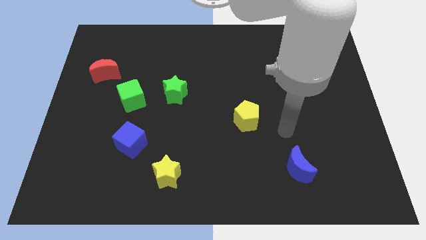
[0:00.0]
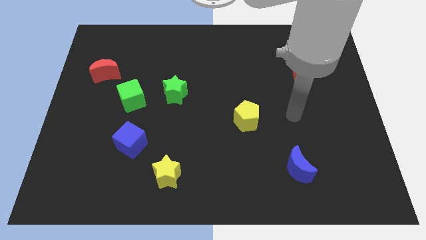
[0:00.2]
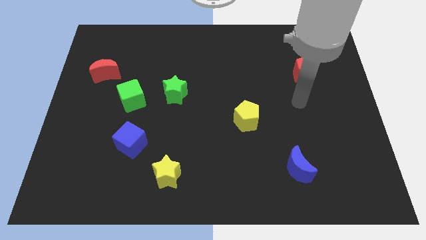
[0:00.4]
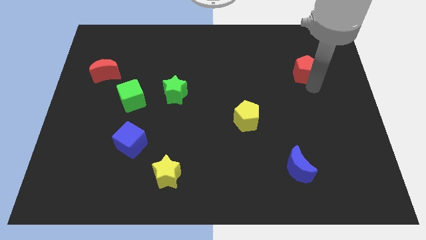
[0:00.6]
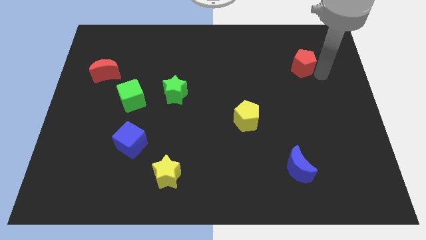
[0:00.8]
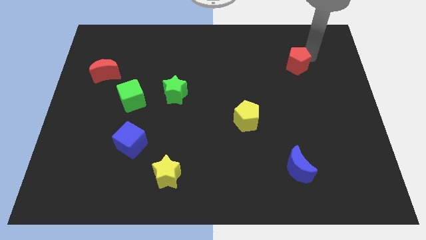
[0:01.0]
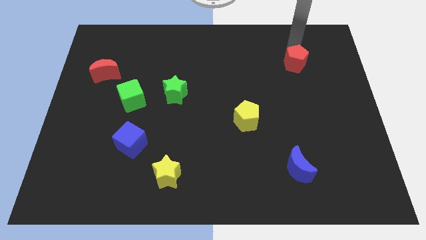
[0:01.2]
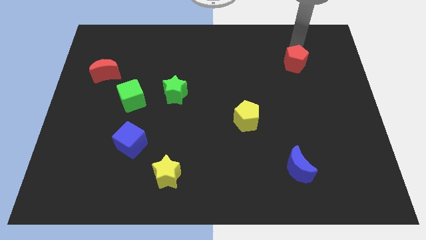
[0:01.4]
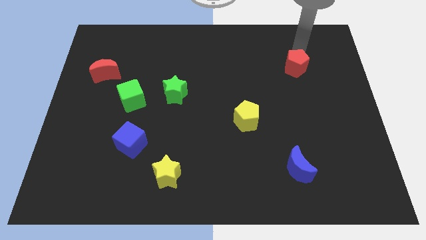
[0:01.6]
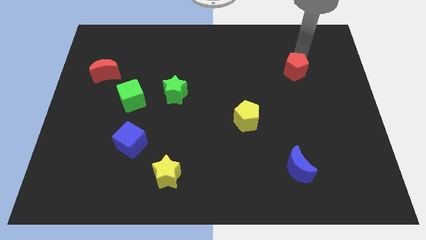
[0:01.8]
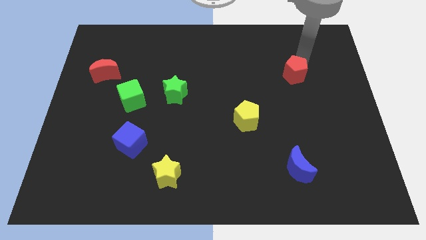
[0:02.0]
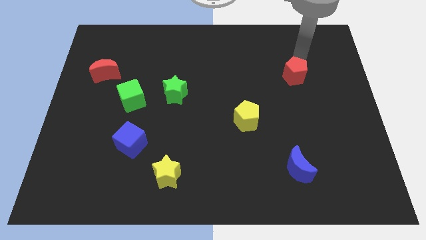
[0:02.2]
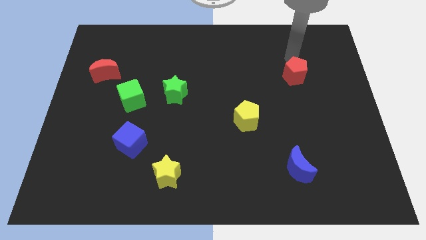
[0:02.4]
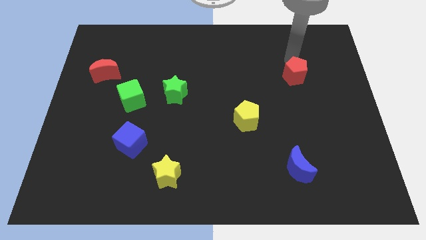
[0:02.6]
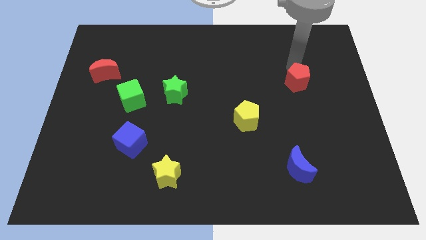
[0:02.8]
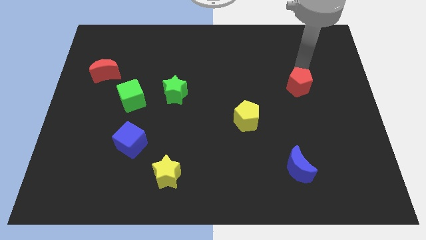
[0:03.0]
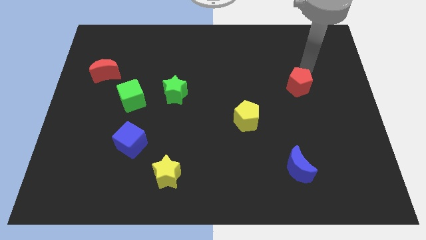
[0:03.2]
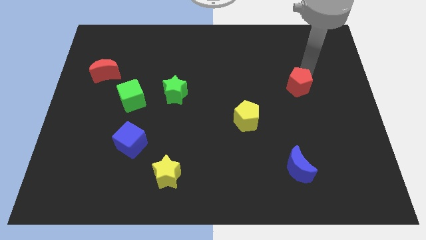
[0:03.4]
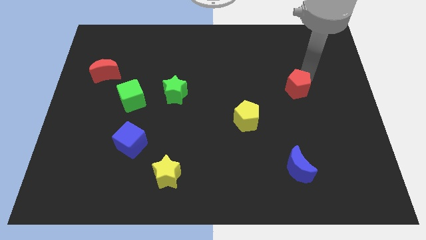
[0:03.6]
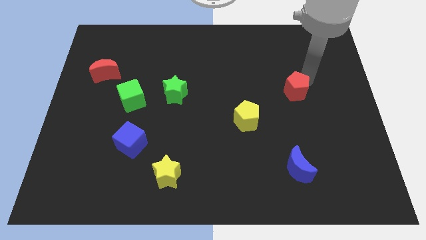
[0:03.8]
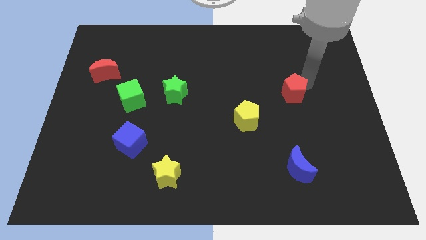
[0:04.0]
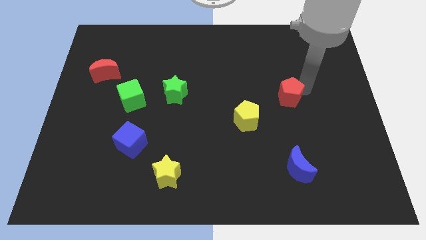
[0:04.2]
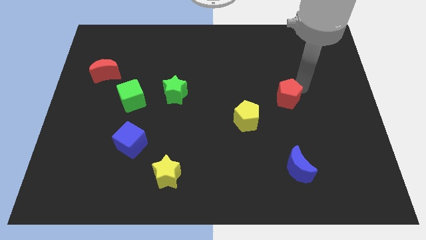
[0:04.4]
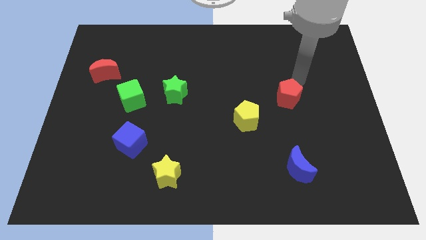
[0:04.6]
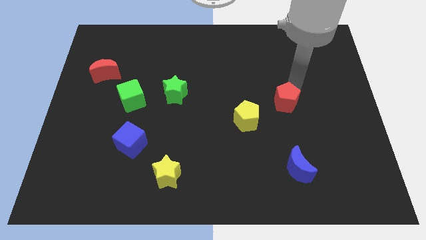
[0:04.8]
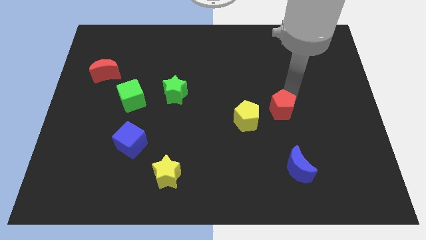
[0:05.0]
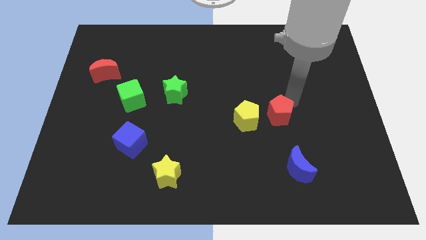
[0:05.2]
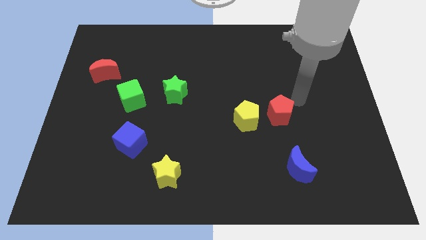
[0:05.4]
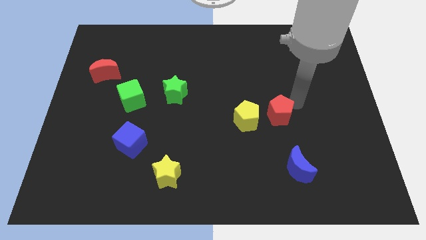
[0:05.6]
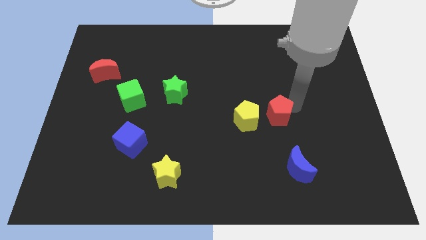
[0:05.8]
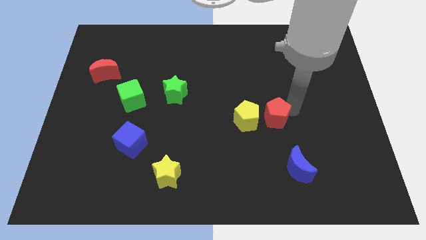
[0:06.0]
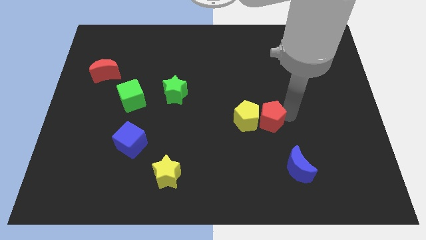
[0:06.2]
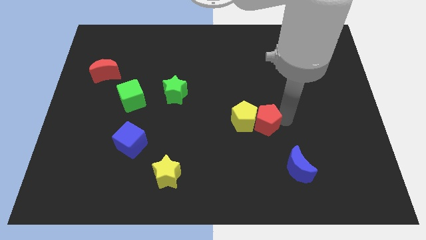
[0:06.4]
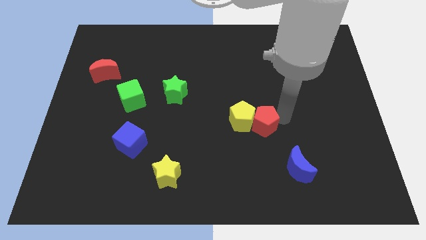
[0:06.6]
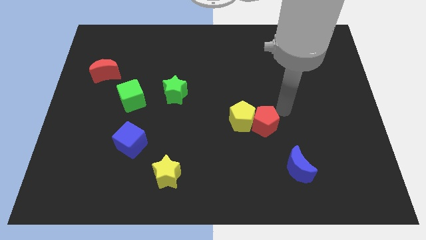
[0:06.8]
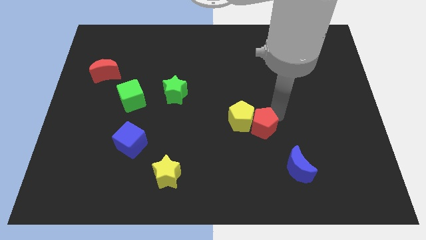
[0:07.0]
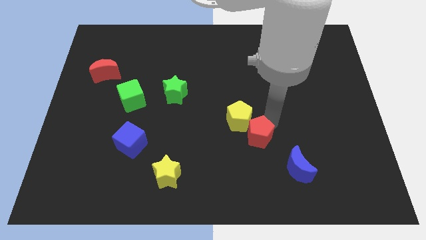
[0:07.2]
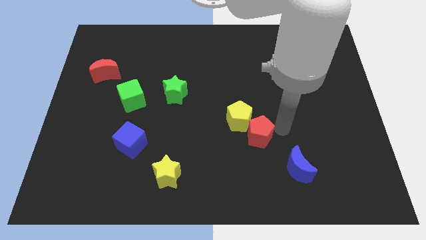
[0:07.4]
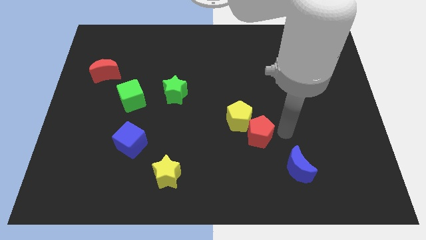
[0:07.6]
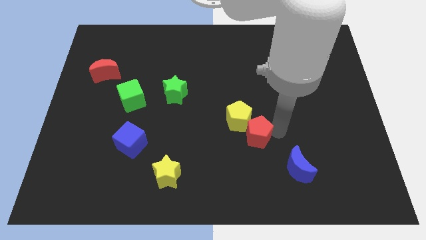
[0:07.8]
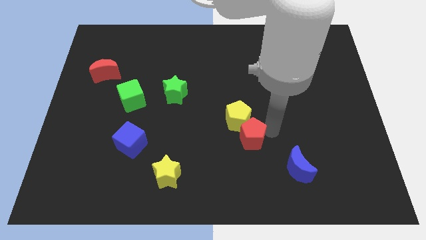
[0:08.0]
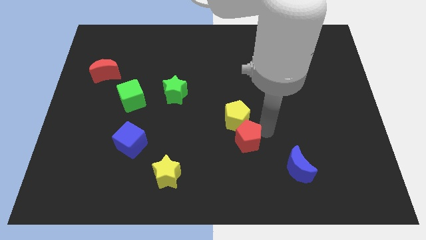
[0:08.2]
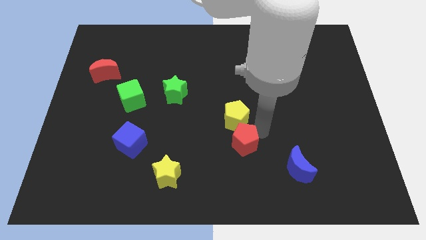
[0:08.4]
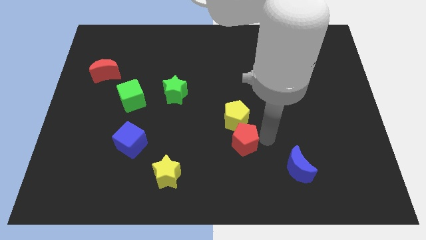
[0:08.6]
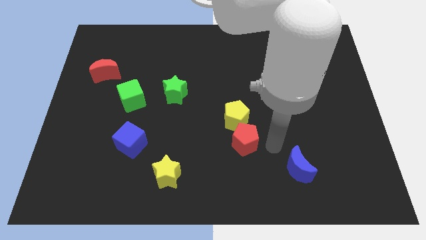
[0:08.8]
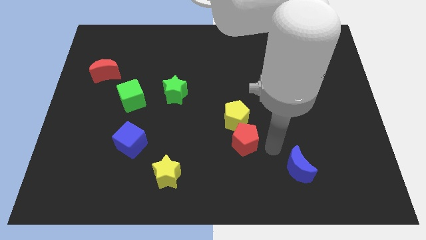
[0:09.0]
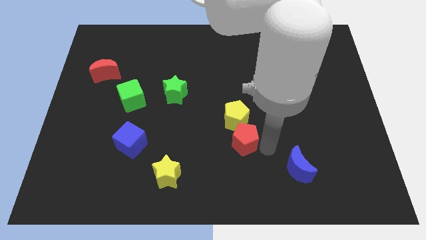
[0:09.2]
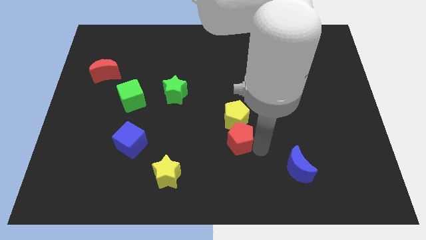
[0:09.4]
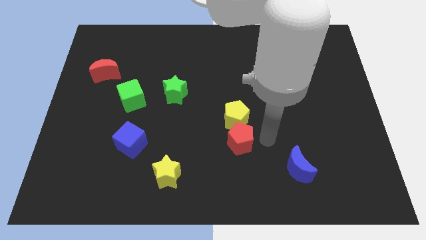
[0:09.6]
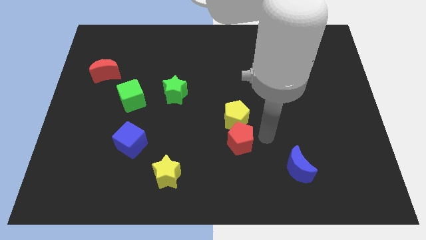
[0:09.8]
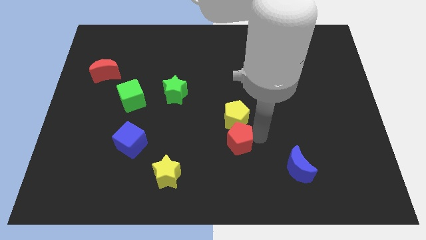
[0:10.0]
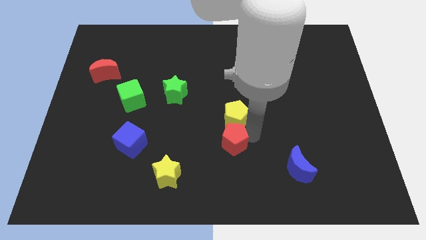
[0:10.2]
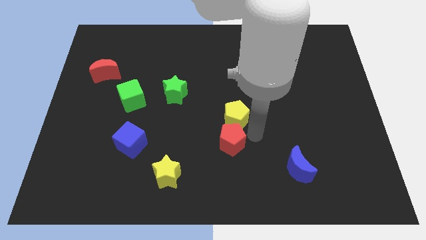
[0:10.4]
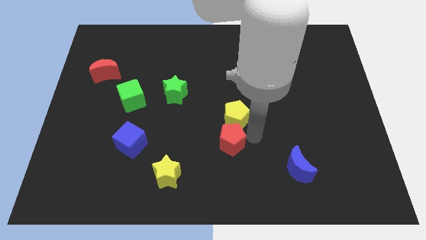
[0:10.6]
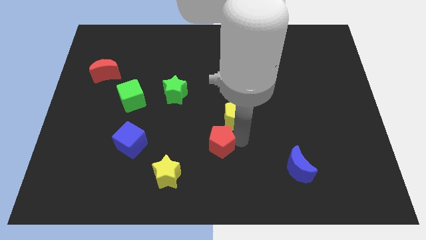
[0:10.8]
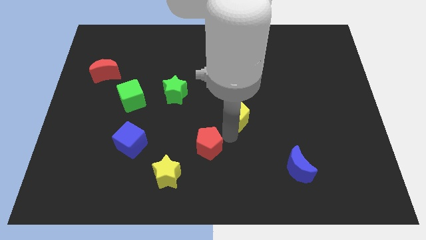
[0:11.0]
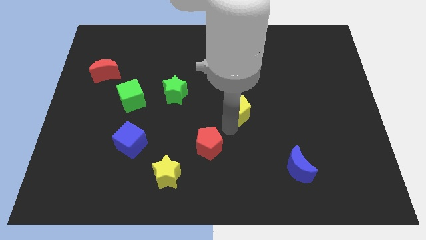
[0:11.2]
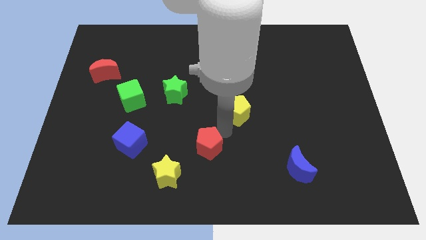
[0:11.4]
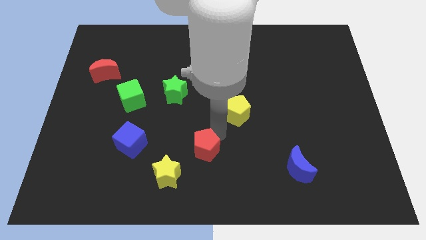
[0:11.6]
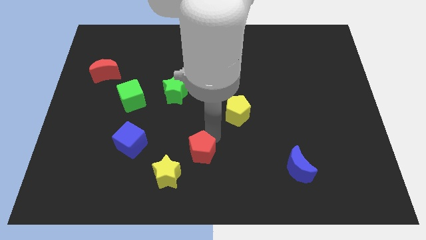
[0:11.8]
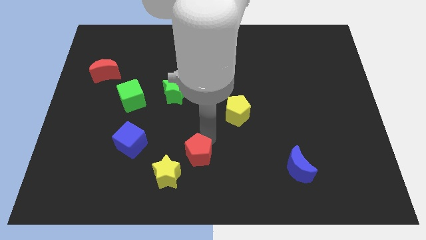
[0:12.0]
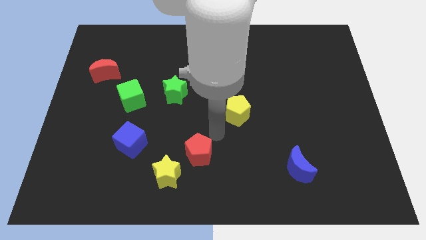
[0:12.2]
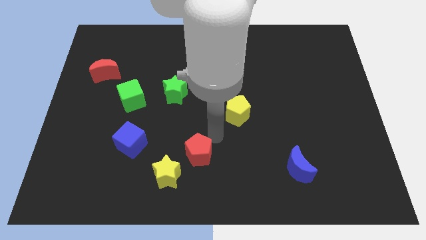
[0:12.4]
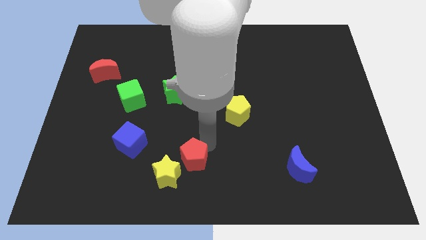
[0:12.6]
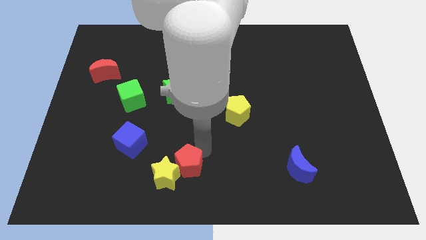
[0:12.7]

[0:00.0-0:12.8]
move the red pentagon towards the yellow star

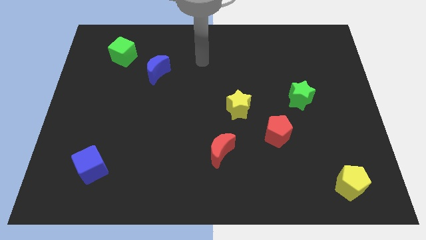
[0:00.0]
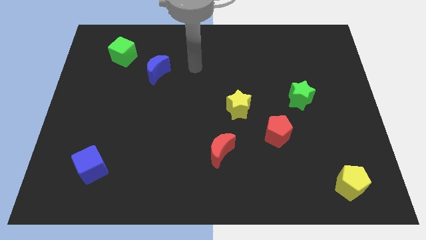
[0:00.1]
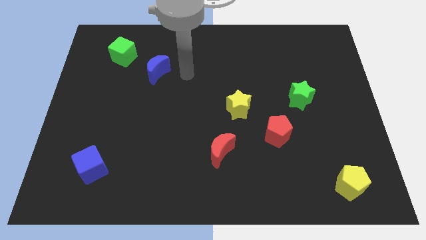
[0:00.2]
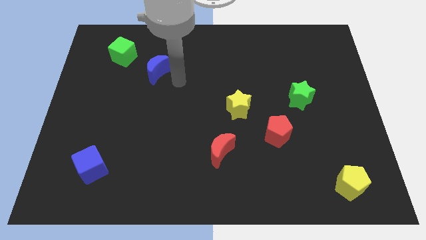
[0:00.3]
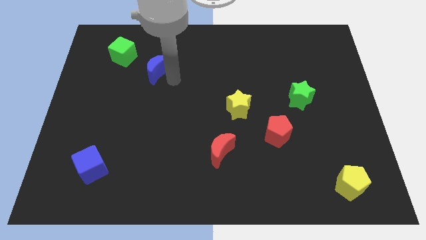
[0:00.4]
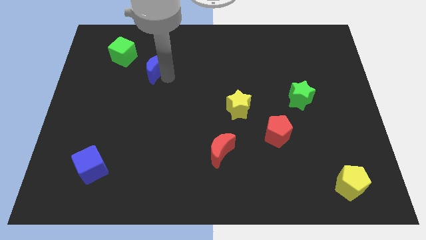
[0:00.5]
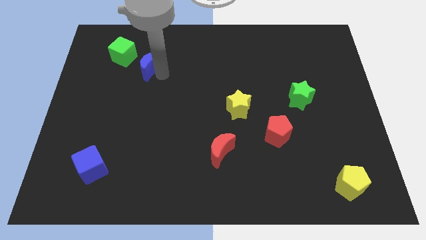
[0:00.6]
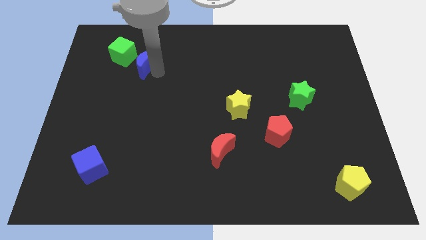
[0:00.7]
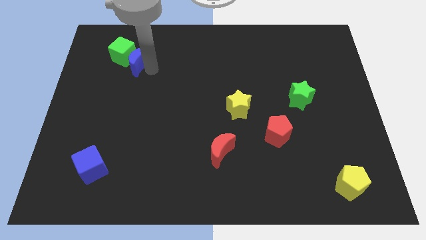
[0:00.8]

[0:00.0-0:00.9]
push the blue moon close to the green cube
